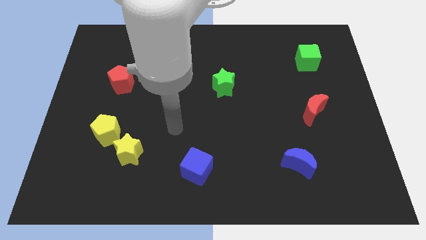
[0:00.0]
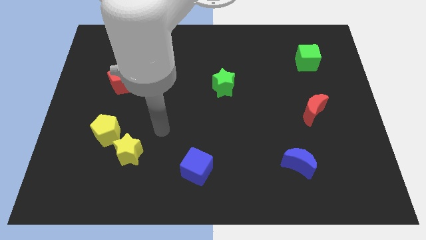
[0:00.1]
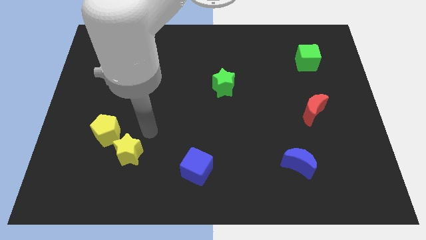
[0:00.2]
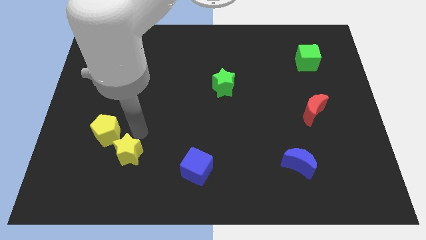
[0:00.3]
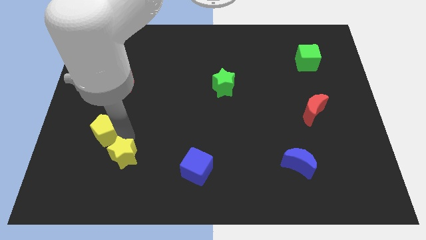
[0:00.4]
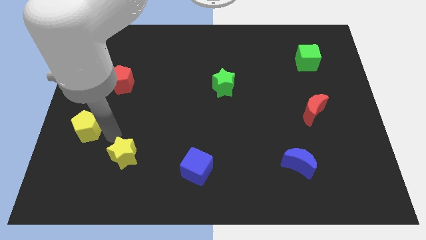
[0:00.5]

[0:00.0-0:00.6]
pull the yellow star apart from the yellow pentagon

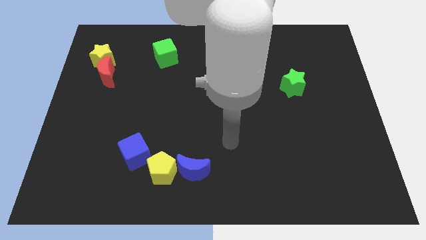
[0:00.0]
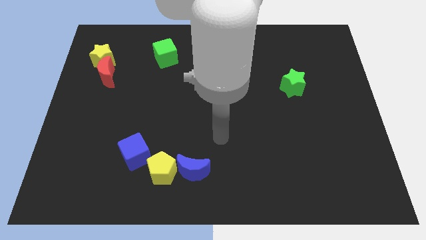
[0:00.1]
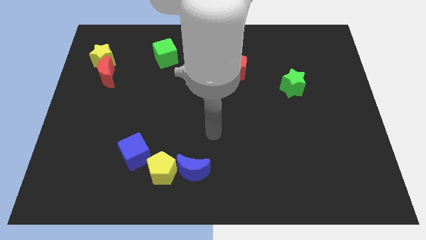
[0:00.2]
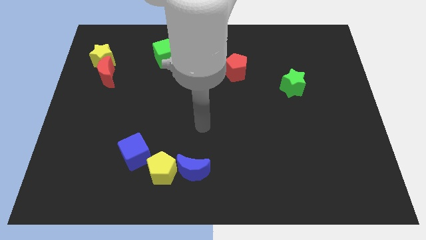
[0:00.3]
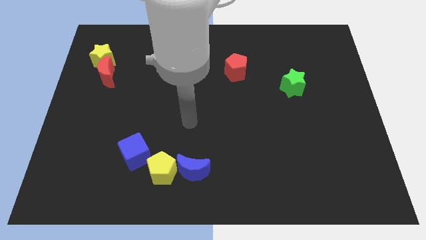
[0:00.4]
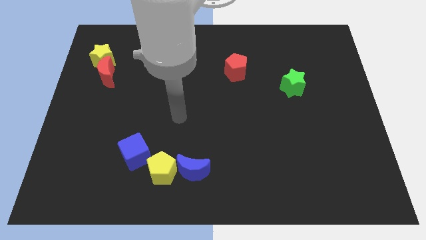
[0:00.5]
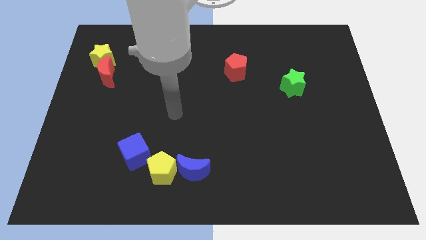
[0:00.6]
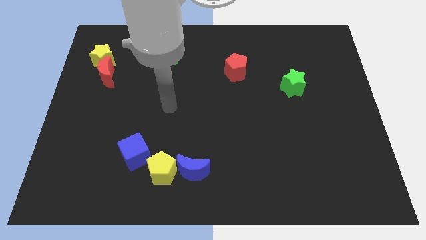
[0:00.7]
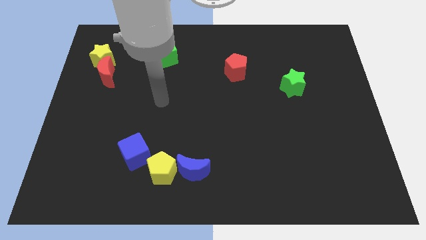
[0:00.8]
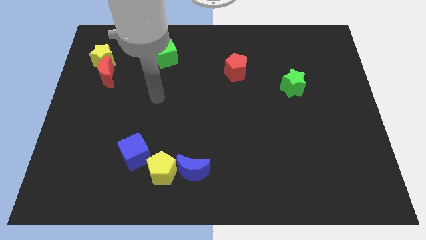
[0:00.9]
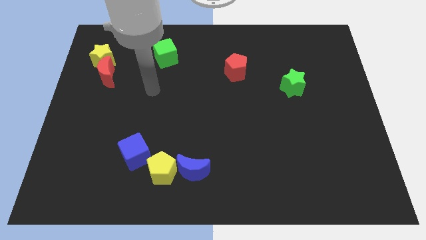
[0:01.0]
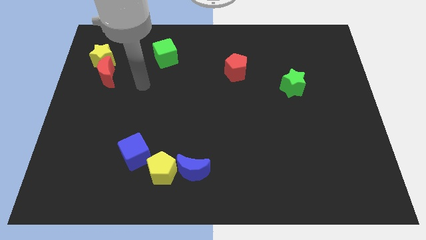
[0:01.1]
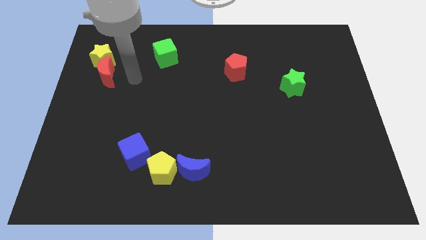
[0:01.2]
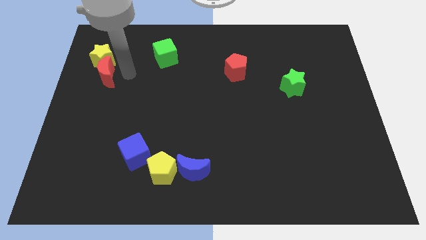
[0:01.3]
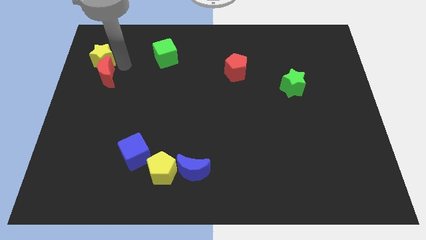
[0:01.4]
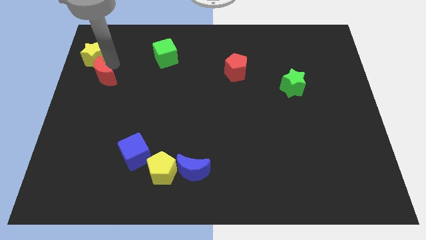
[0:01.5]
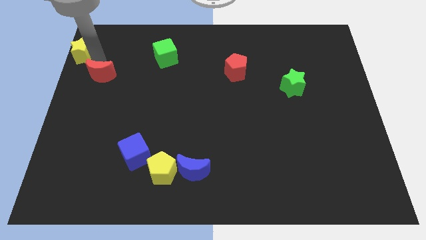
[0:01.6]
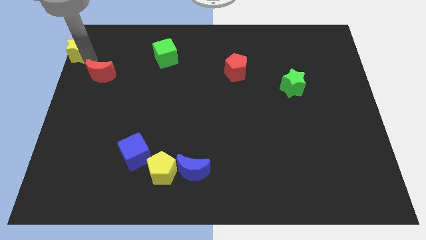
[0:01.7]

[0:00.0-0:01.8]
separate the red moon from the yellow star

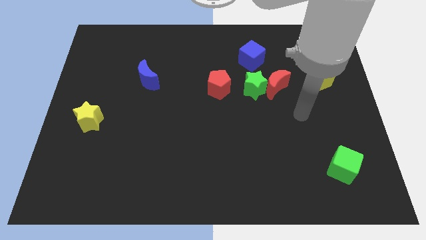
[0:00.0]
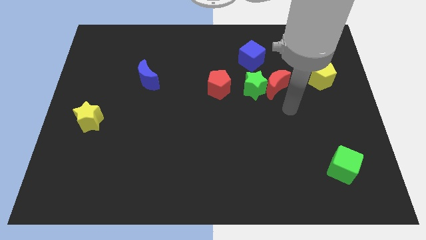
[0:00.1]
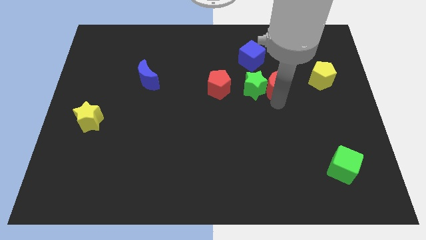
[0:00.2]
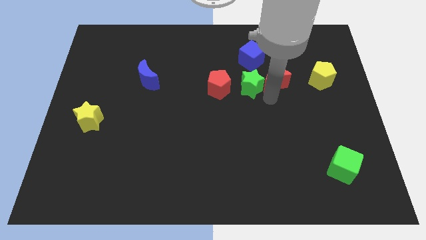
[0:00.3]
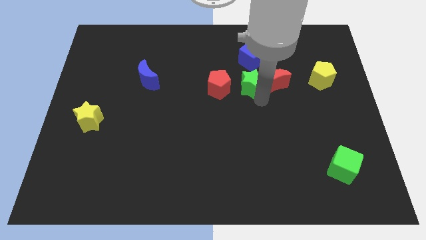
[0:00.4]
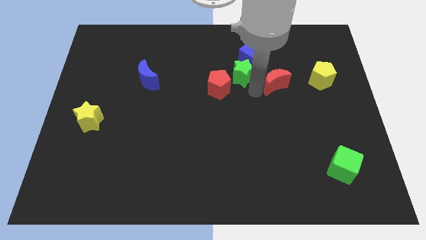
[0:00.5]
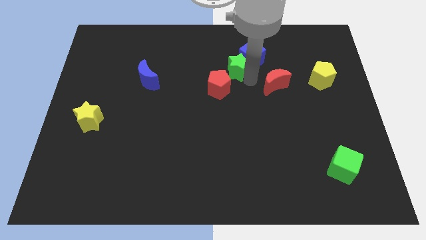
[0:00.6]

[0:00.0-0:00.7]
move the red moon away from the green star

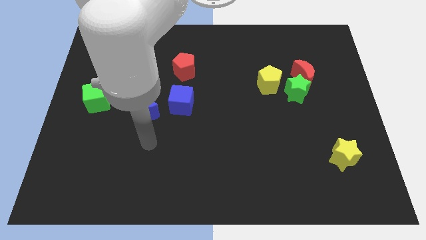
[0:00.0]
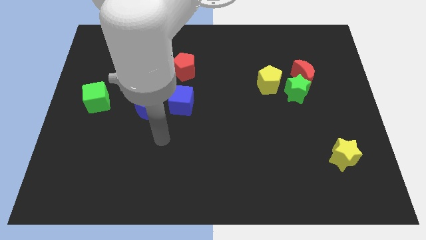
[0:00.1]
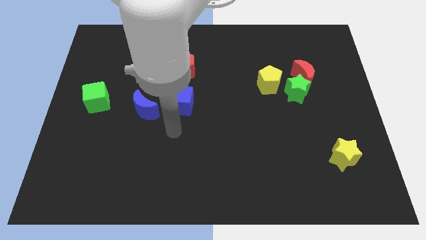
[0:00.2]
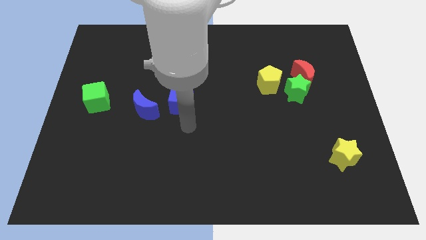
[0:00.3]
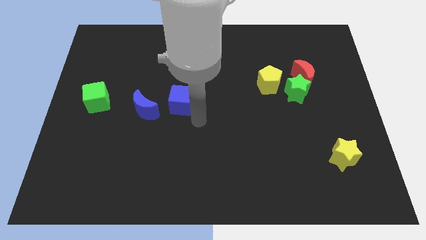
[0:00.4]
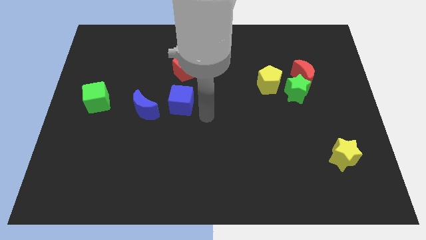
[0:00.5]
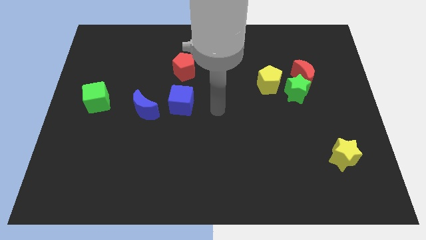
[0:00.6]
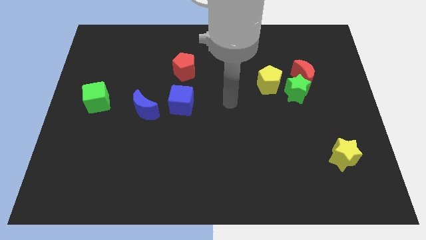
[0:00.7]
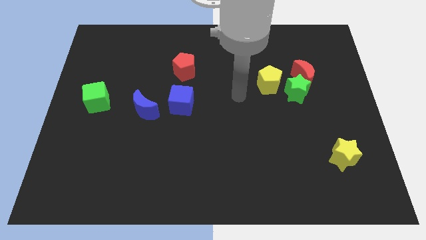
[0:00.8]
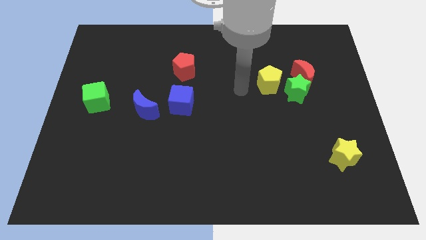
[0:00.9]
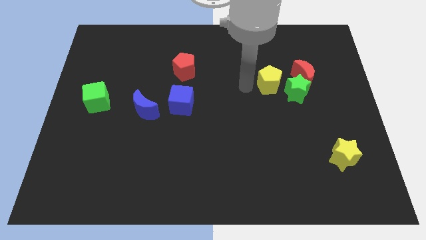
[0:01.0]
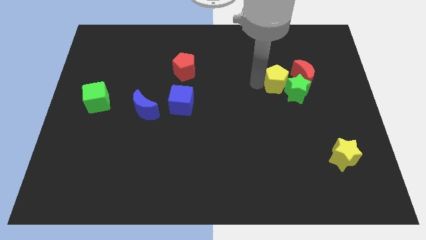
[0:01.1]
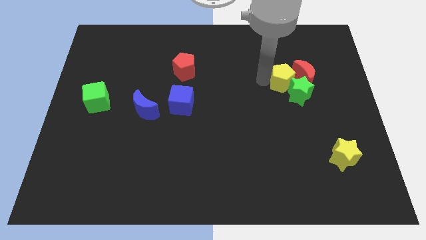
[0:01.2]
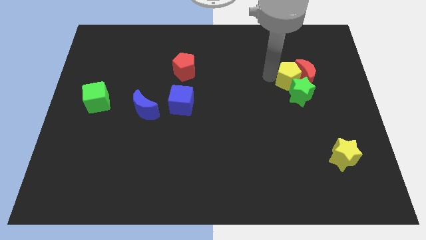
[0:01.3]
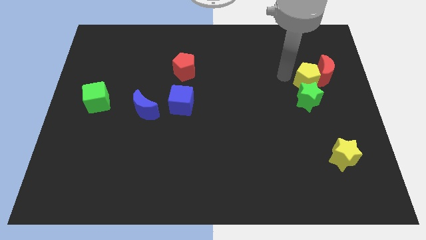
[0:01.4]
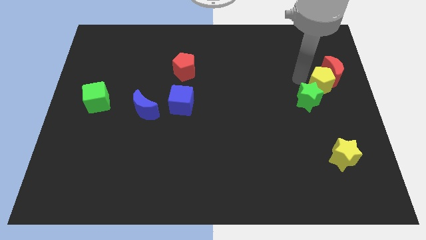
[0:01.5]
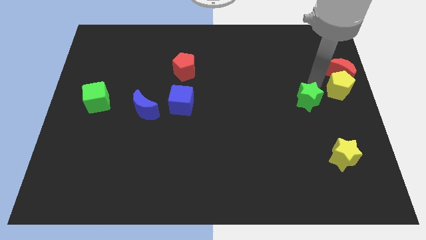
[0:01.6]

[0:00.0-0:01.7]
pull the green star apart from the red moon and yellow pentagon

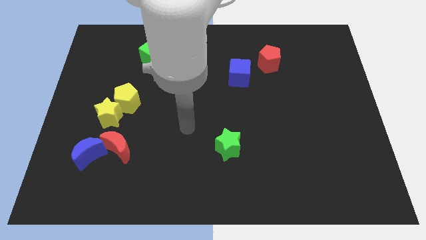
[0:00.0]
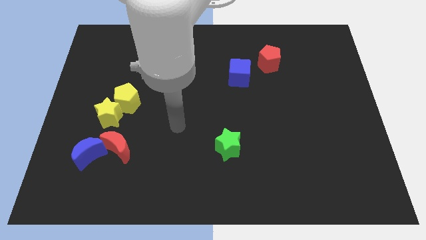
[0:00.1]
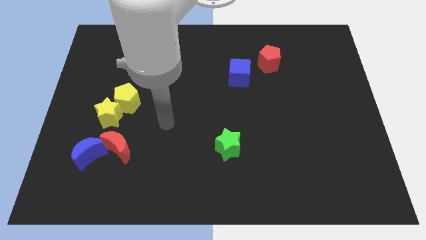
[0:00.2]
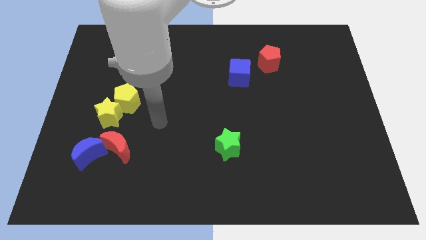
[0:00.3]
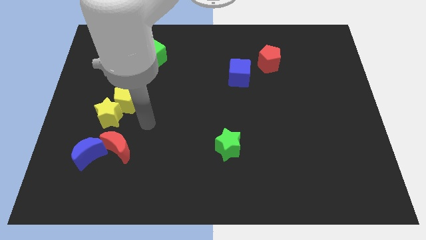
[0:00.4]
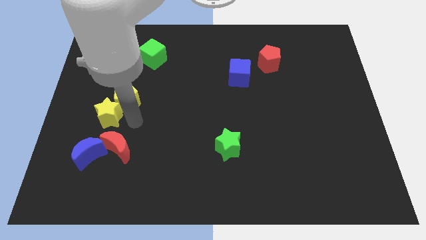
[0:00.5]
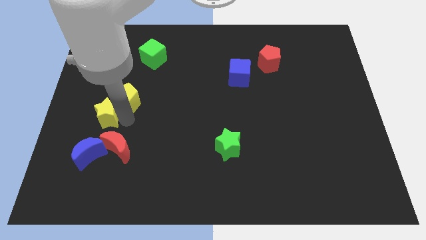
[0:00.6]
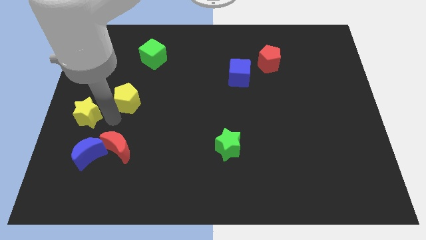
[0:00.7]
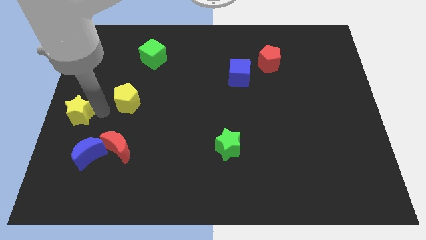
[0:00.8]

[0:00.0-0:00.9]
separate the yellow pentagon from the yellow star

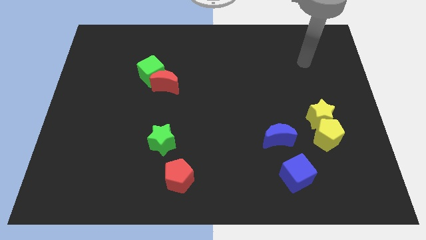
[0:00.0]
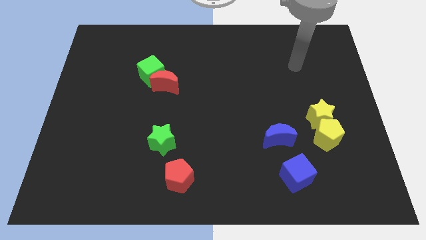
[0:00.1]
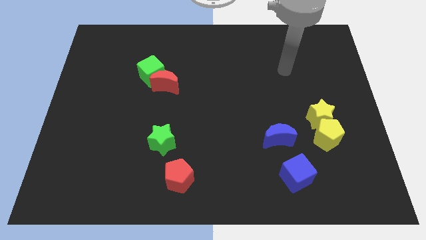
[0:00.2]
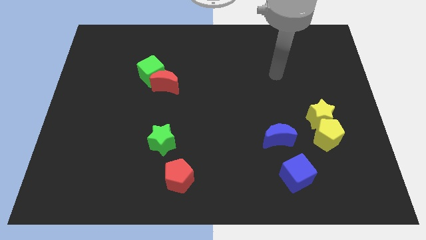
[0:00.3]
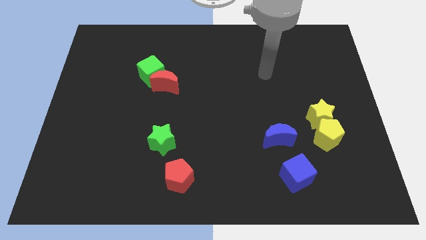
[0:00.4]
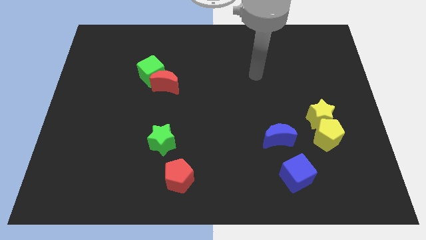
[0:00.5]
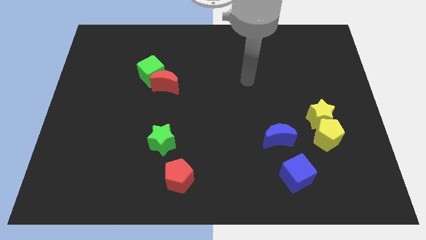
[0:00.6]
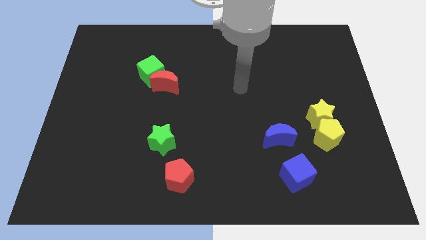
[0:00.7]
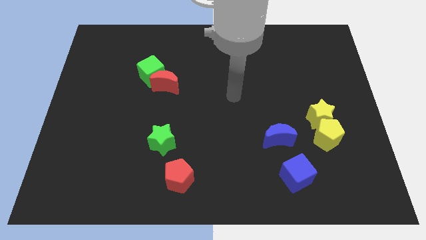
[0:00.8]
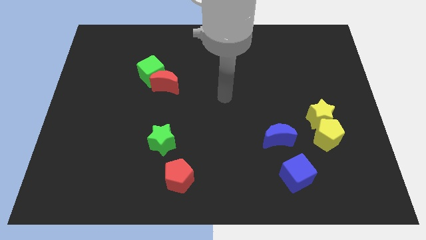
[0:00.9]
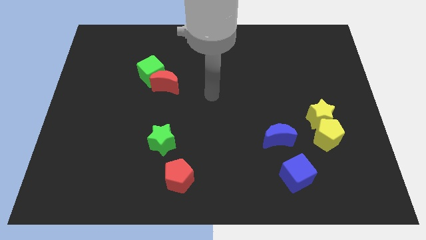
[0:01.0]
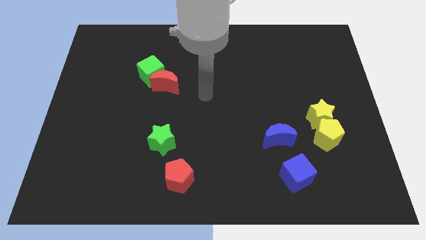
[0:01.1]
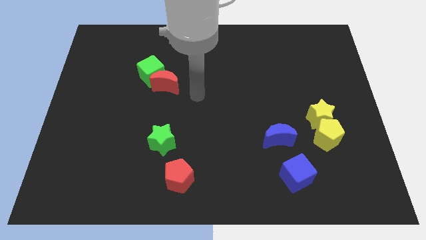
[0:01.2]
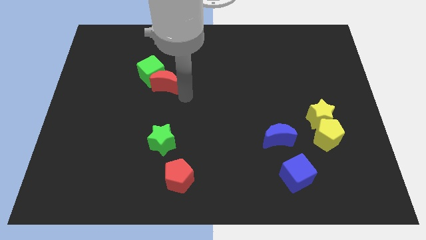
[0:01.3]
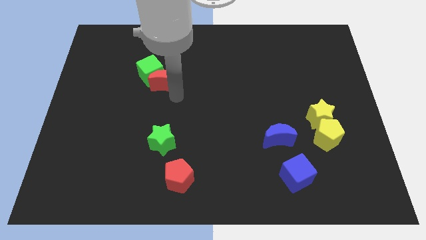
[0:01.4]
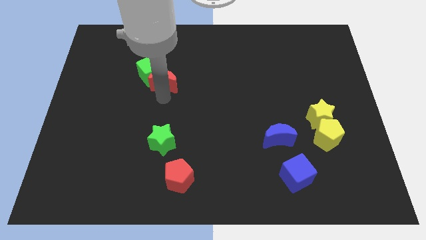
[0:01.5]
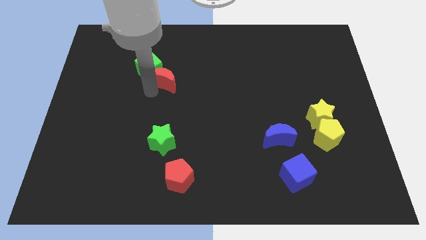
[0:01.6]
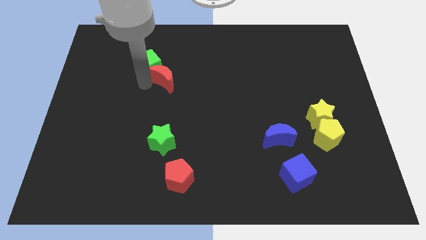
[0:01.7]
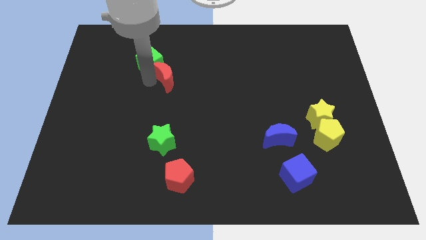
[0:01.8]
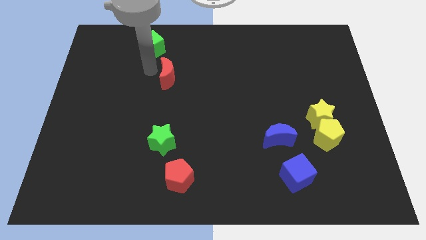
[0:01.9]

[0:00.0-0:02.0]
separate the red moon from the green cube

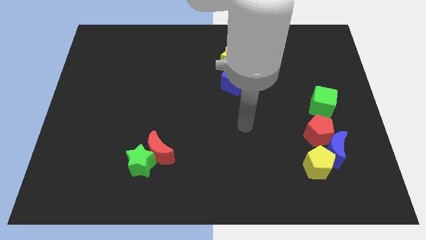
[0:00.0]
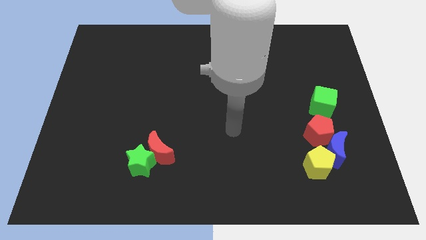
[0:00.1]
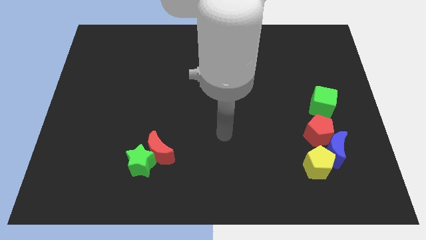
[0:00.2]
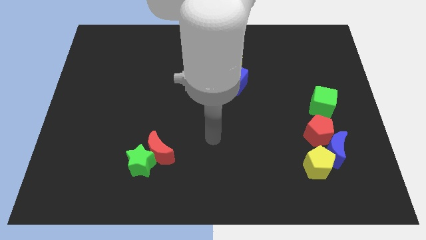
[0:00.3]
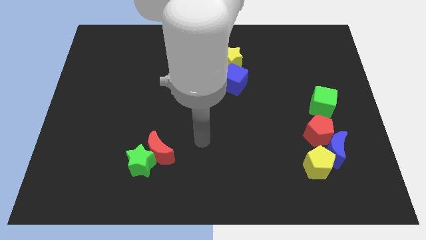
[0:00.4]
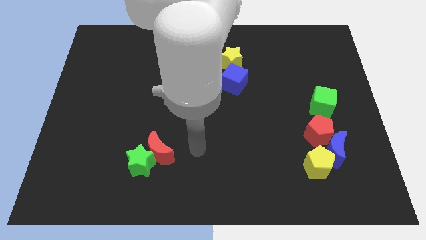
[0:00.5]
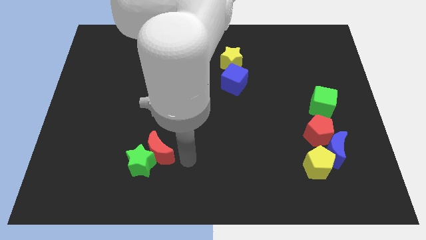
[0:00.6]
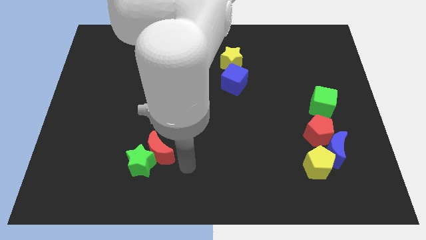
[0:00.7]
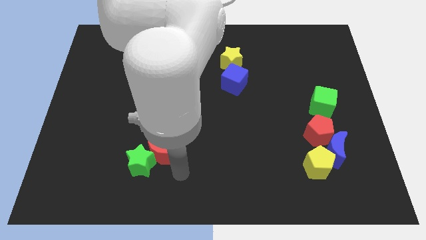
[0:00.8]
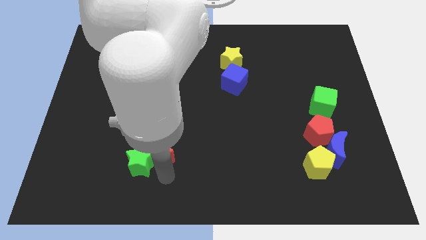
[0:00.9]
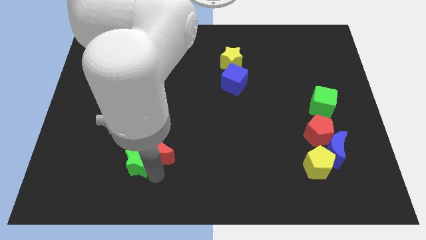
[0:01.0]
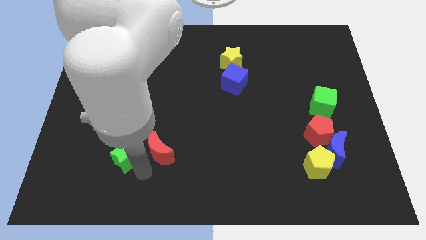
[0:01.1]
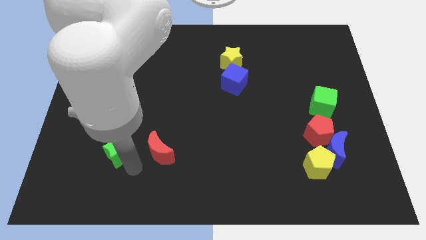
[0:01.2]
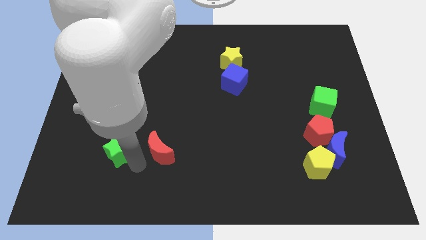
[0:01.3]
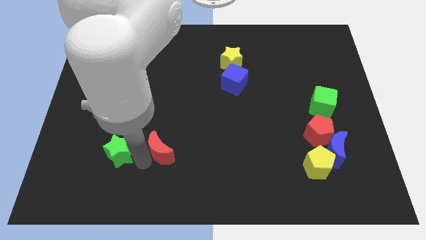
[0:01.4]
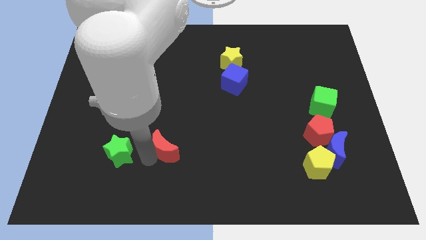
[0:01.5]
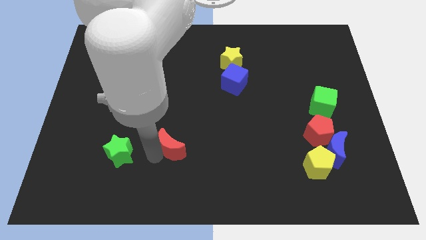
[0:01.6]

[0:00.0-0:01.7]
separate the red moon from the green star
